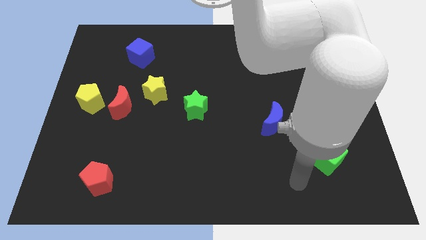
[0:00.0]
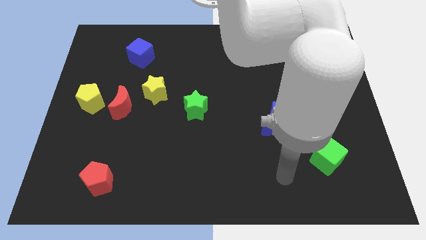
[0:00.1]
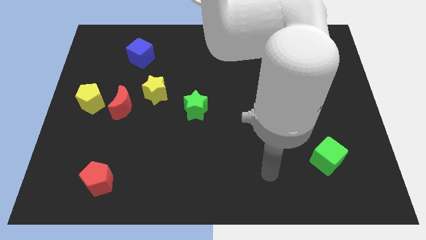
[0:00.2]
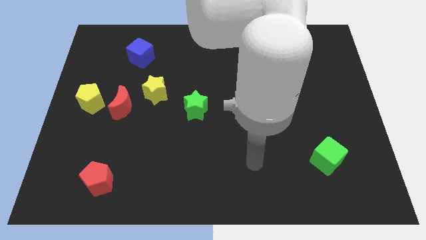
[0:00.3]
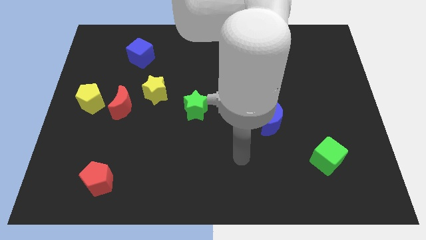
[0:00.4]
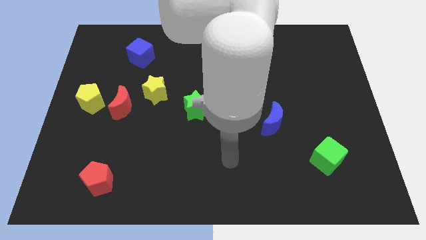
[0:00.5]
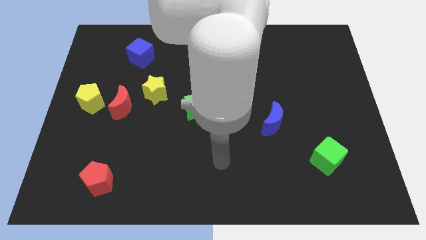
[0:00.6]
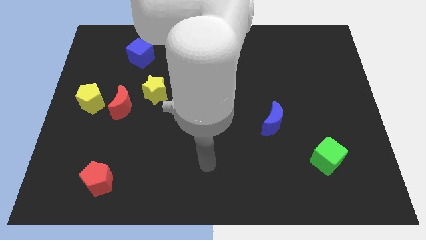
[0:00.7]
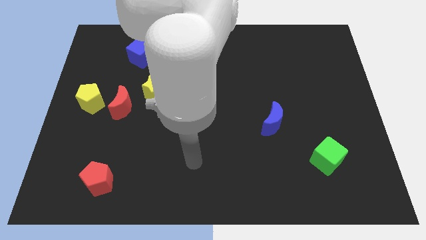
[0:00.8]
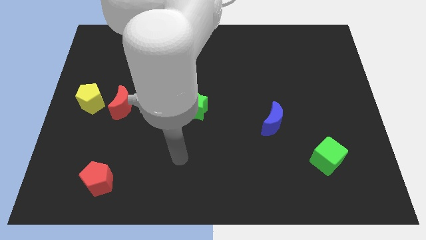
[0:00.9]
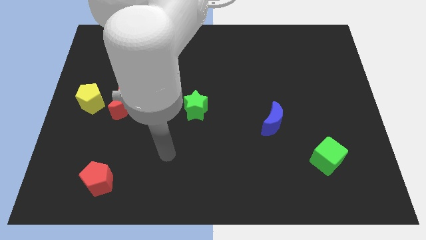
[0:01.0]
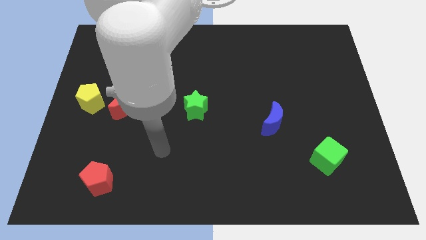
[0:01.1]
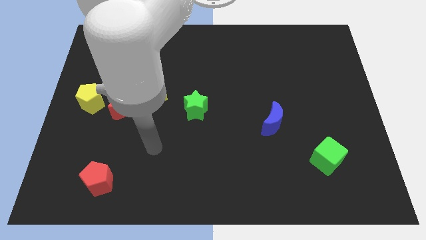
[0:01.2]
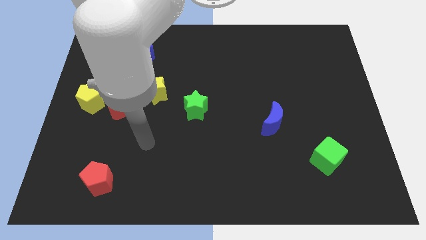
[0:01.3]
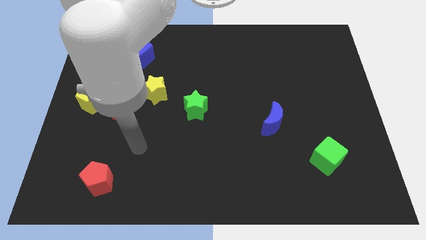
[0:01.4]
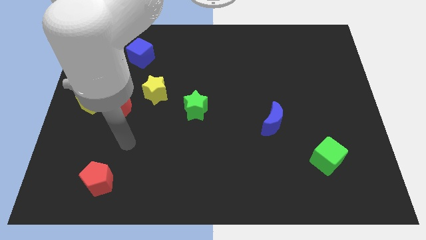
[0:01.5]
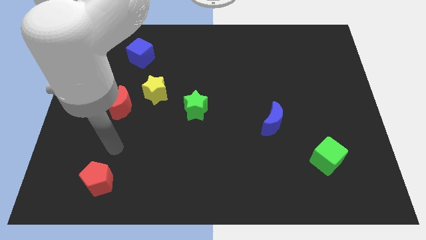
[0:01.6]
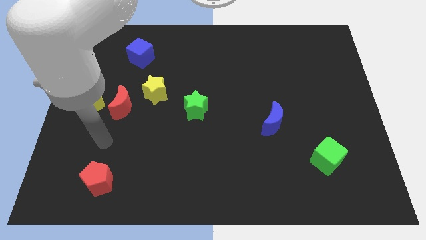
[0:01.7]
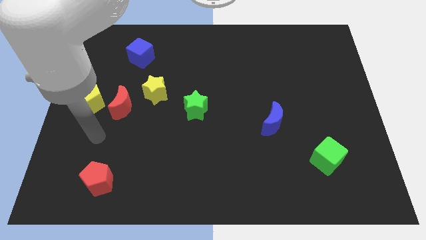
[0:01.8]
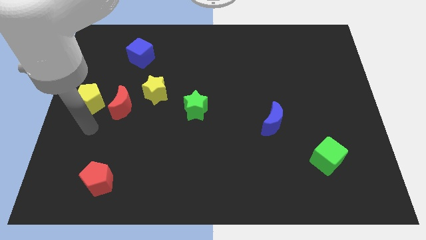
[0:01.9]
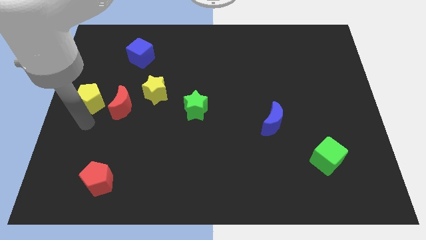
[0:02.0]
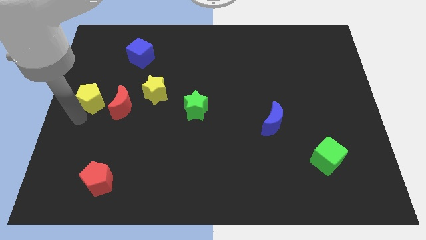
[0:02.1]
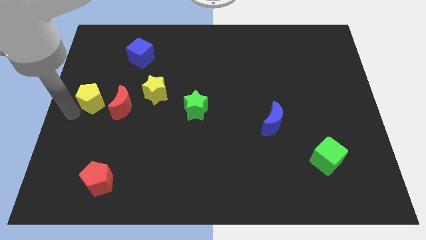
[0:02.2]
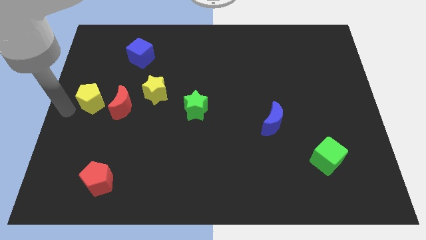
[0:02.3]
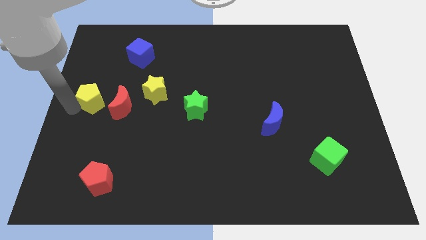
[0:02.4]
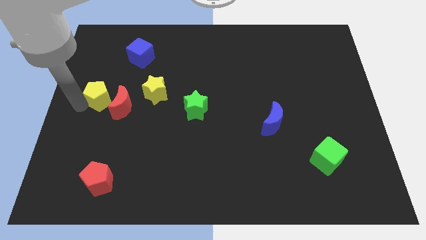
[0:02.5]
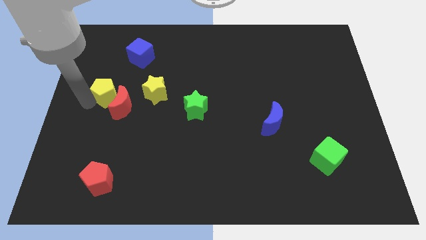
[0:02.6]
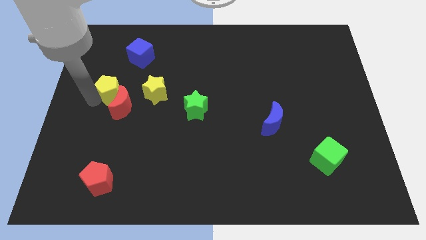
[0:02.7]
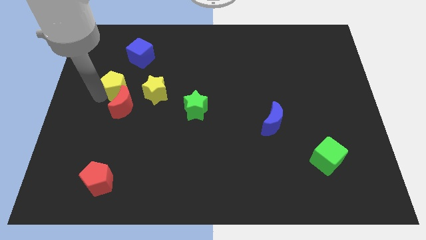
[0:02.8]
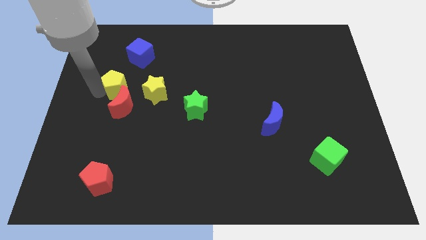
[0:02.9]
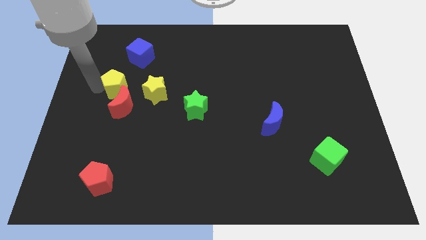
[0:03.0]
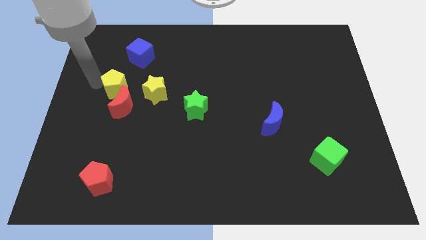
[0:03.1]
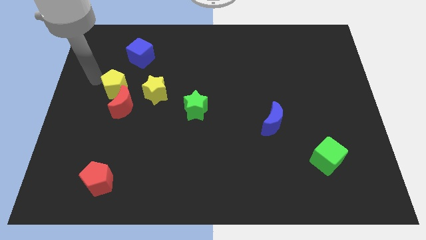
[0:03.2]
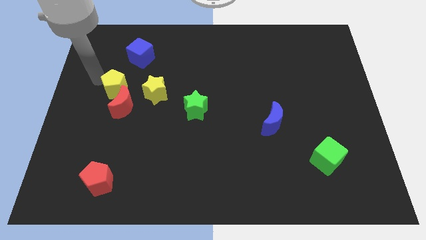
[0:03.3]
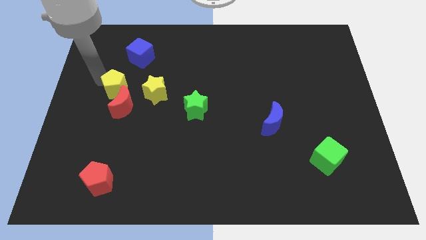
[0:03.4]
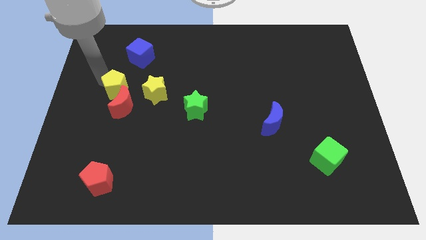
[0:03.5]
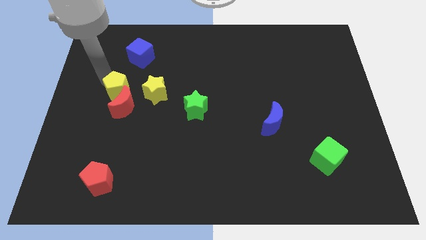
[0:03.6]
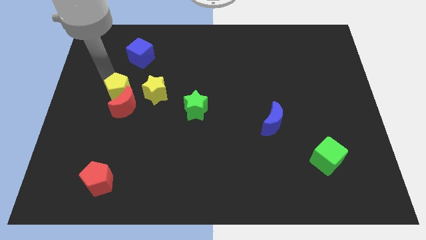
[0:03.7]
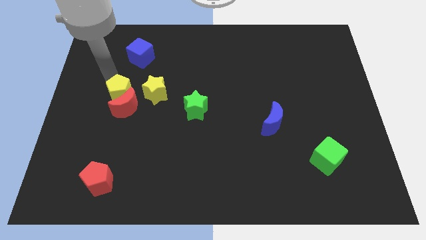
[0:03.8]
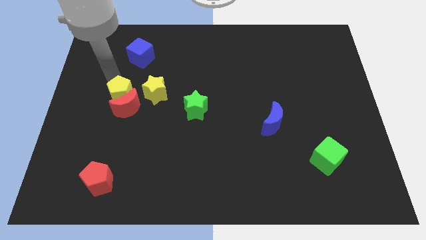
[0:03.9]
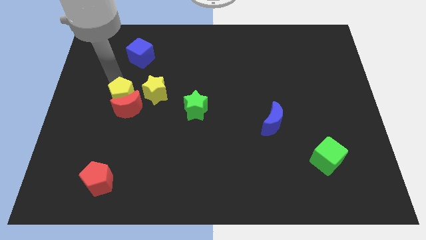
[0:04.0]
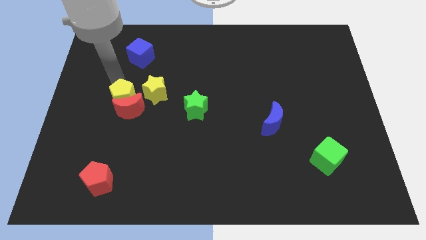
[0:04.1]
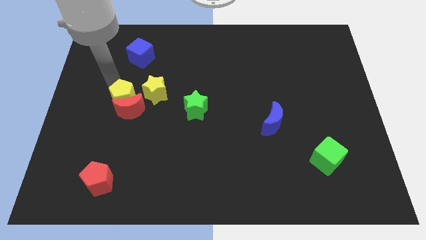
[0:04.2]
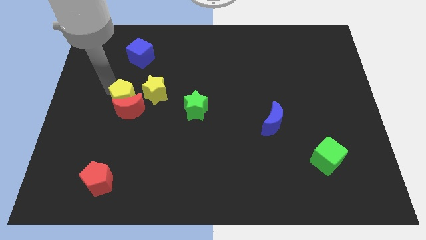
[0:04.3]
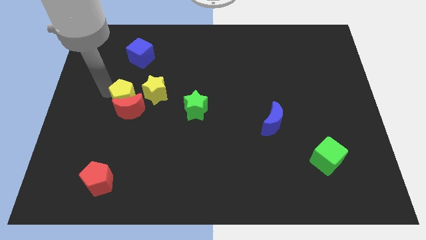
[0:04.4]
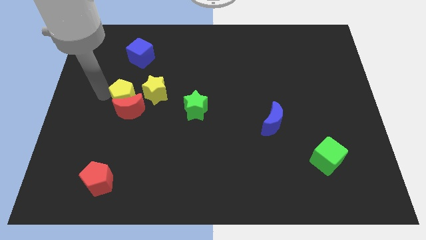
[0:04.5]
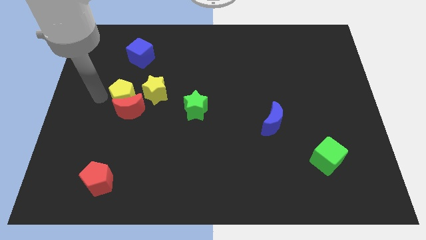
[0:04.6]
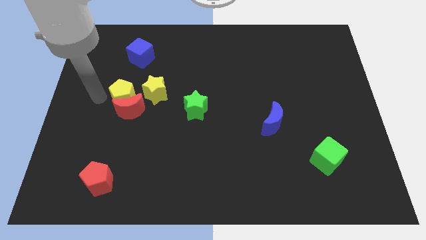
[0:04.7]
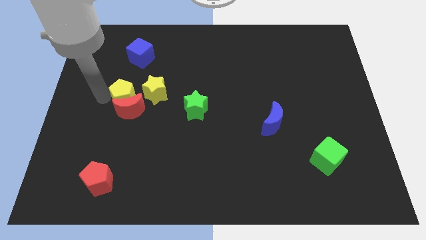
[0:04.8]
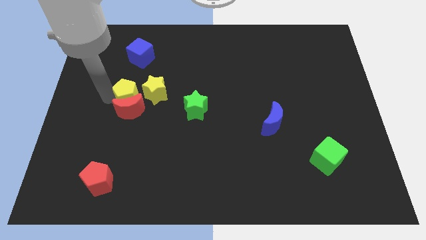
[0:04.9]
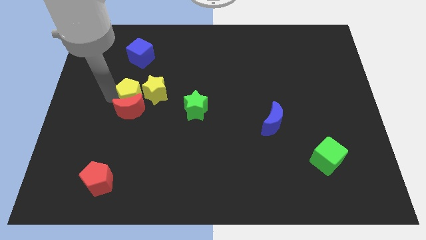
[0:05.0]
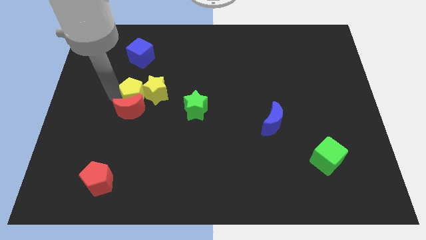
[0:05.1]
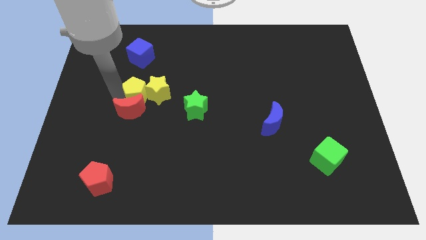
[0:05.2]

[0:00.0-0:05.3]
move the yellow pentagon to the left of the green star

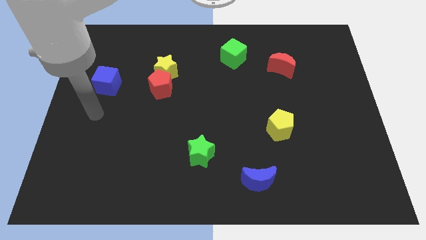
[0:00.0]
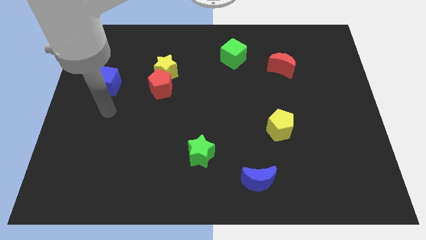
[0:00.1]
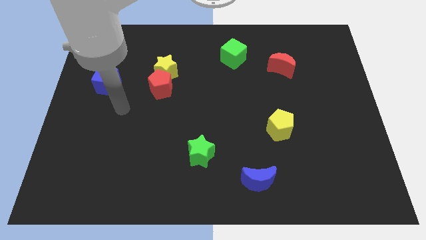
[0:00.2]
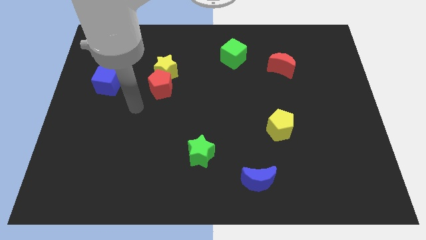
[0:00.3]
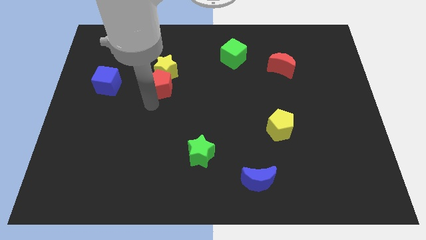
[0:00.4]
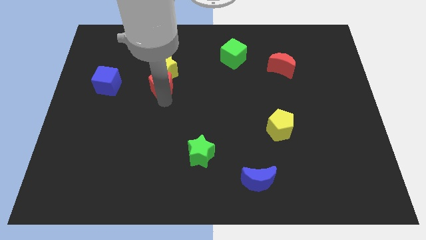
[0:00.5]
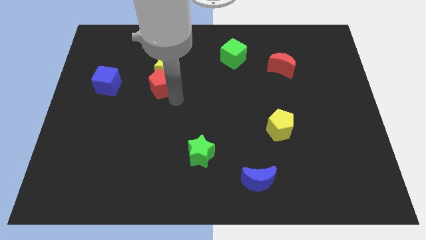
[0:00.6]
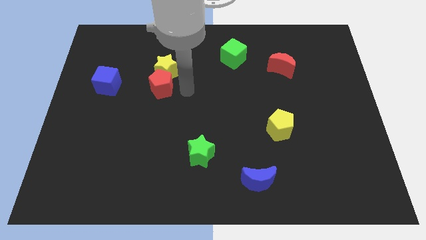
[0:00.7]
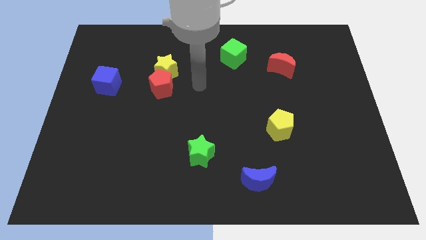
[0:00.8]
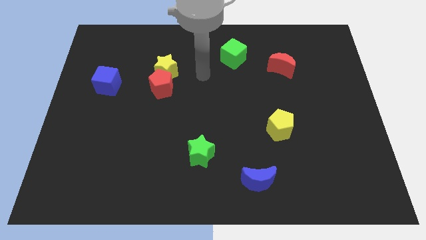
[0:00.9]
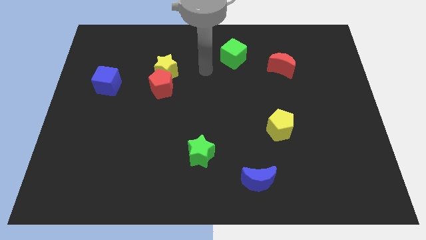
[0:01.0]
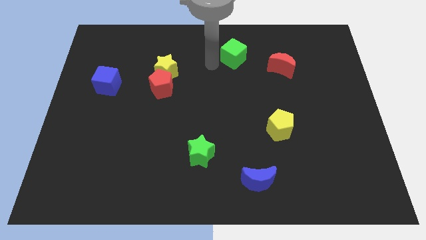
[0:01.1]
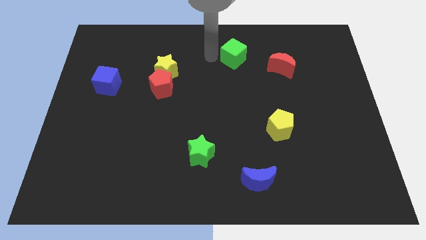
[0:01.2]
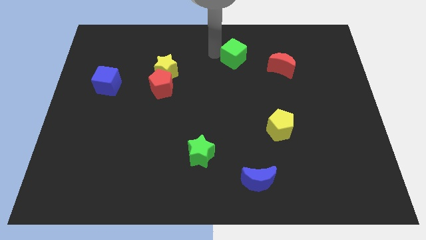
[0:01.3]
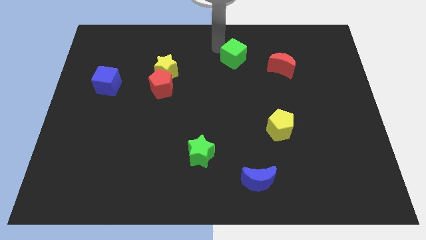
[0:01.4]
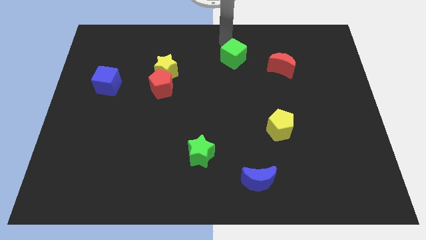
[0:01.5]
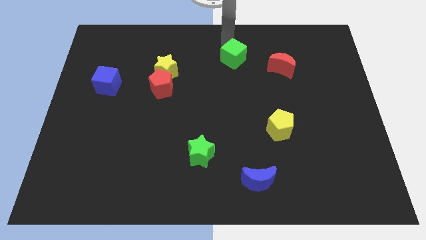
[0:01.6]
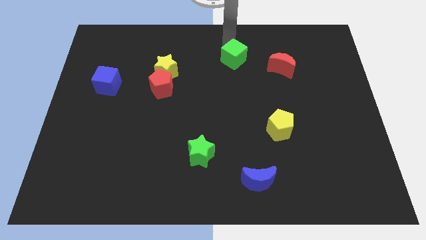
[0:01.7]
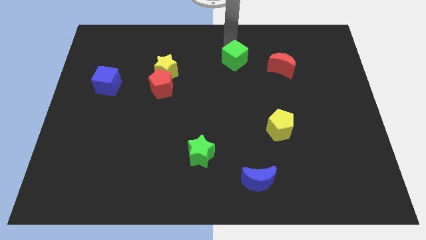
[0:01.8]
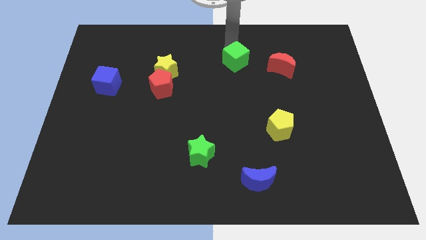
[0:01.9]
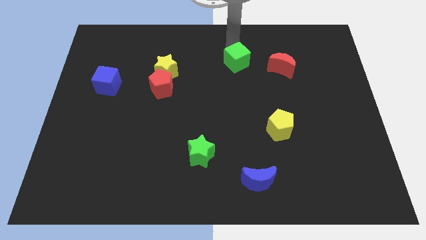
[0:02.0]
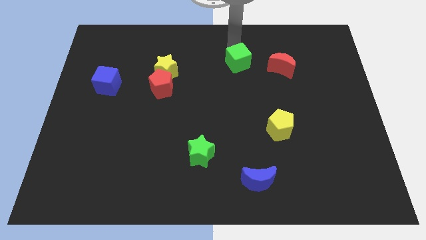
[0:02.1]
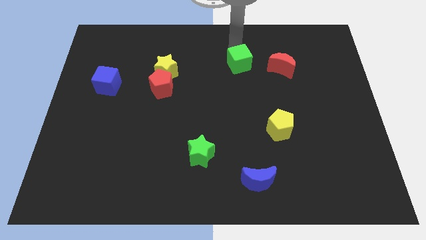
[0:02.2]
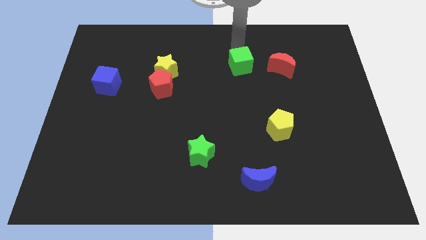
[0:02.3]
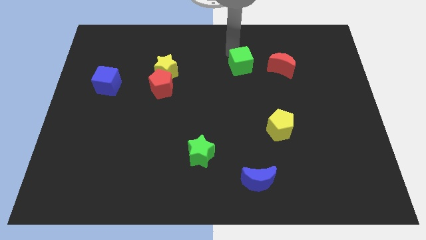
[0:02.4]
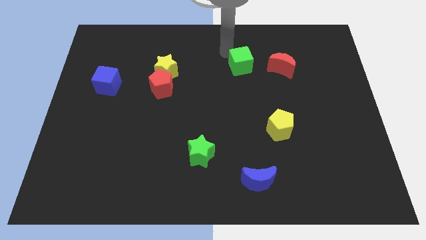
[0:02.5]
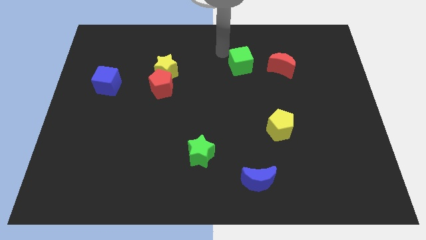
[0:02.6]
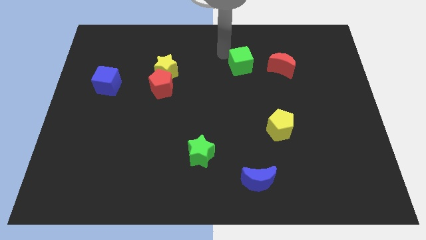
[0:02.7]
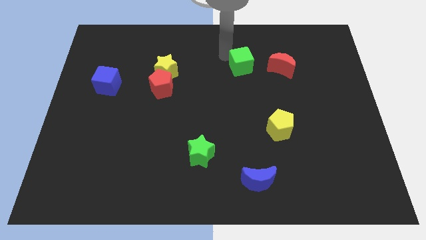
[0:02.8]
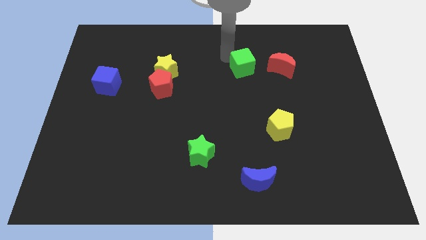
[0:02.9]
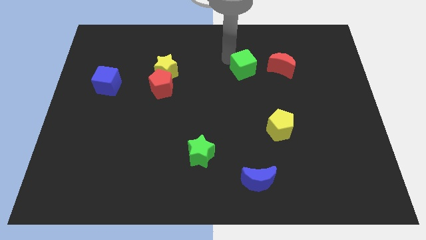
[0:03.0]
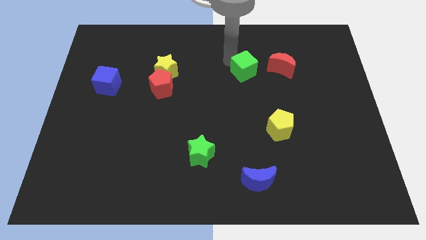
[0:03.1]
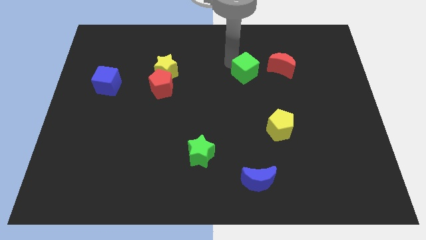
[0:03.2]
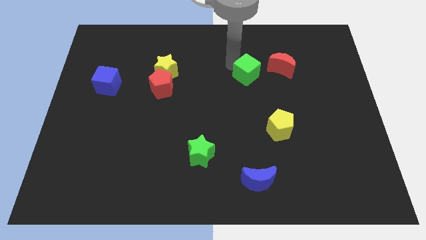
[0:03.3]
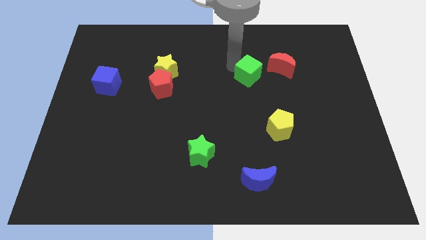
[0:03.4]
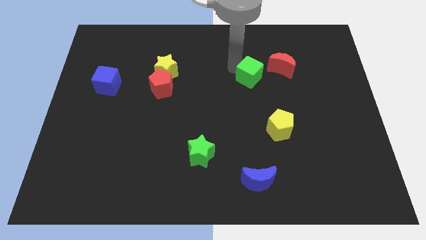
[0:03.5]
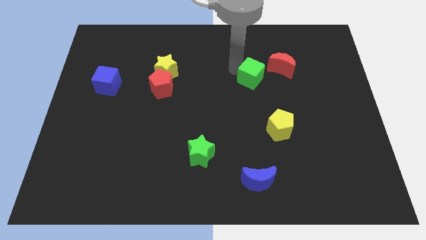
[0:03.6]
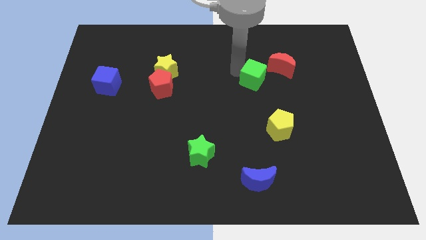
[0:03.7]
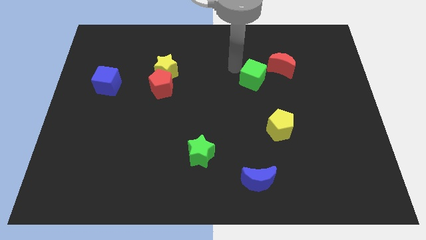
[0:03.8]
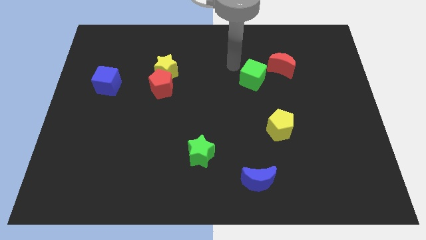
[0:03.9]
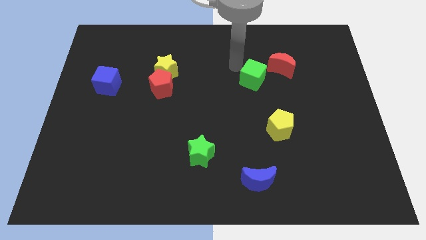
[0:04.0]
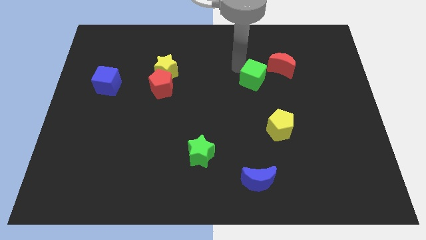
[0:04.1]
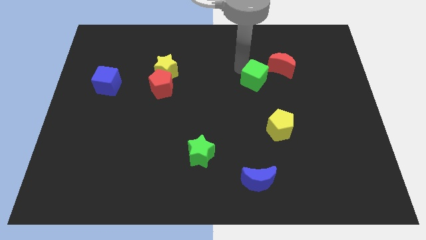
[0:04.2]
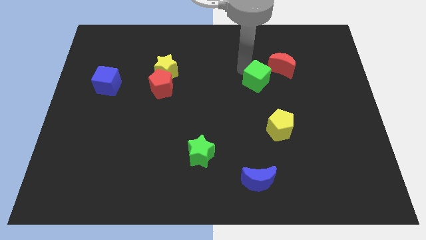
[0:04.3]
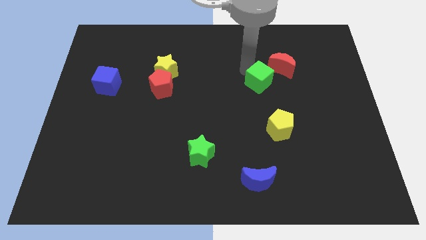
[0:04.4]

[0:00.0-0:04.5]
push the green cube to the top side of the yellow pentagon
